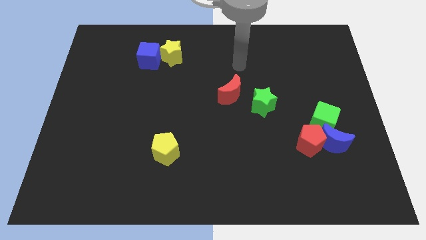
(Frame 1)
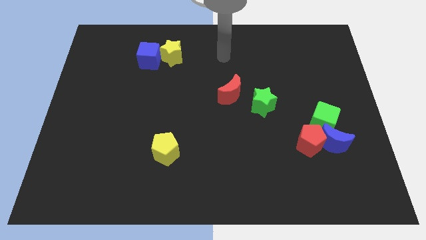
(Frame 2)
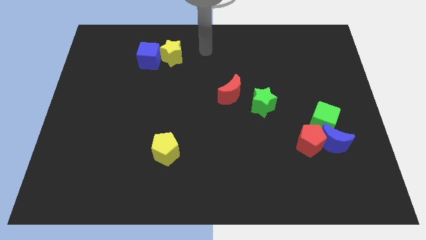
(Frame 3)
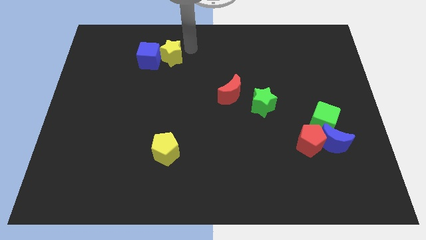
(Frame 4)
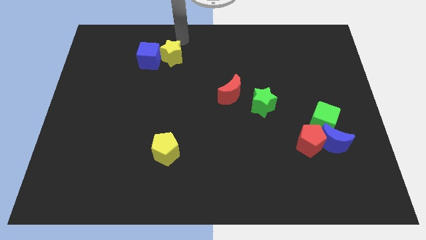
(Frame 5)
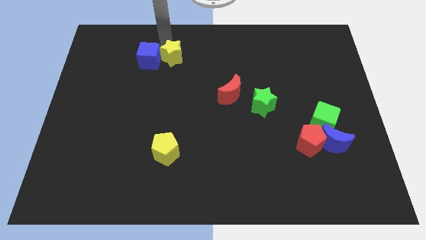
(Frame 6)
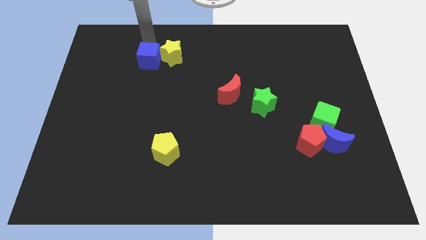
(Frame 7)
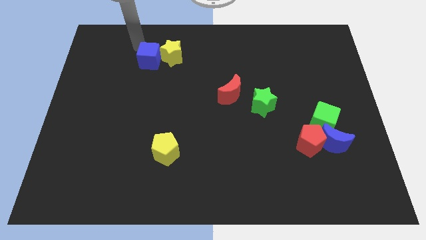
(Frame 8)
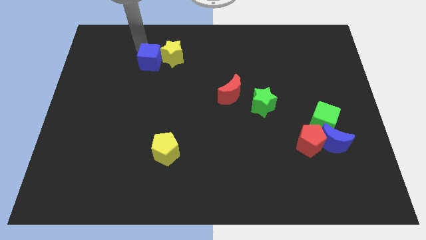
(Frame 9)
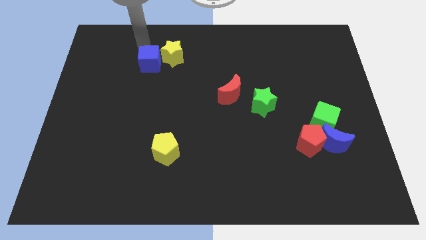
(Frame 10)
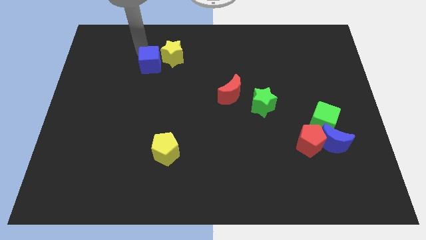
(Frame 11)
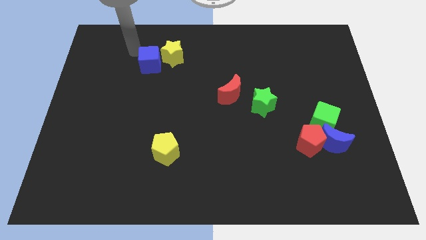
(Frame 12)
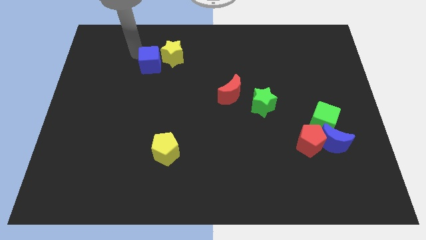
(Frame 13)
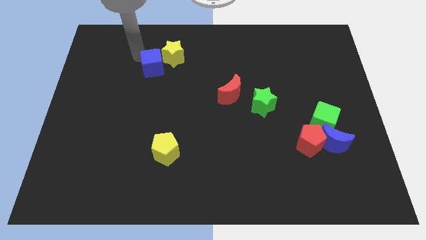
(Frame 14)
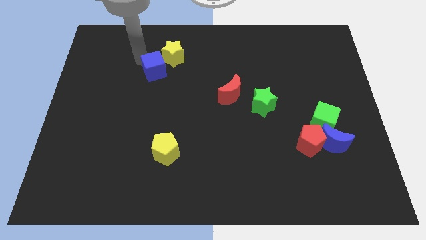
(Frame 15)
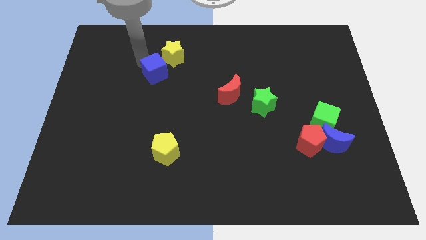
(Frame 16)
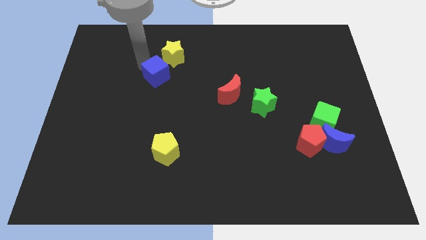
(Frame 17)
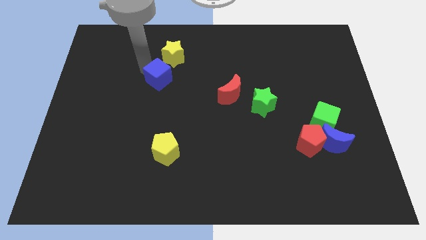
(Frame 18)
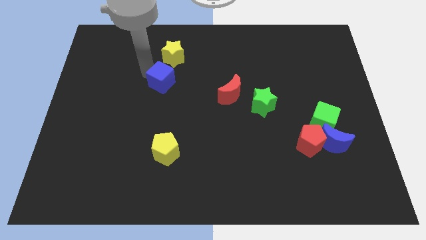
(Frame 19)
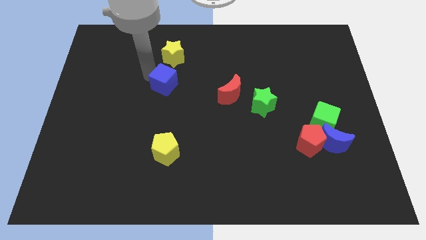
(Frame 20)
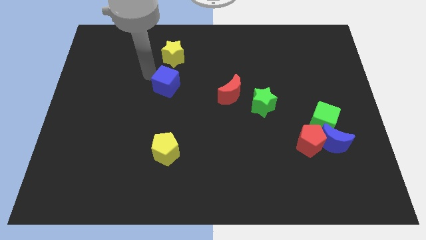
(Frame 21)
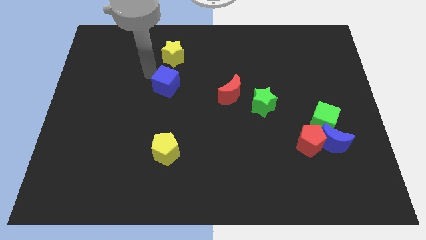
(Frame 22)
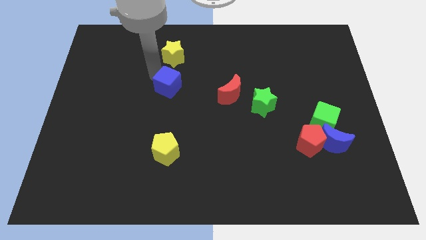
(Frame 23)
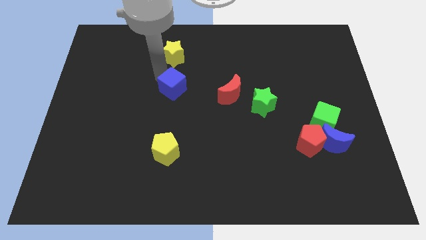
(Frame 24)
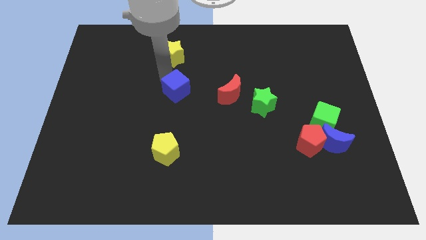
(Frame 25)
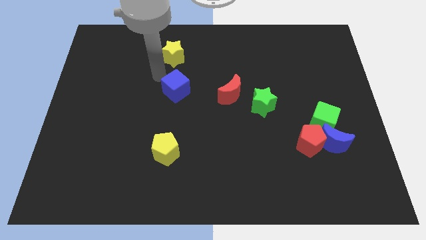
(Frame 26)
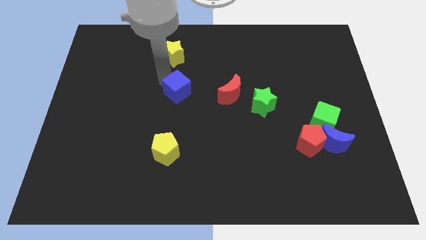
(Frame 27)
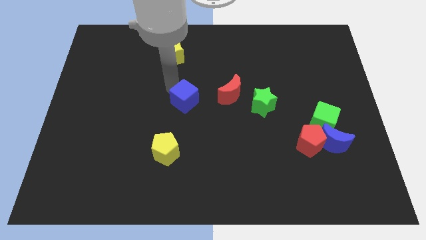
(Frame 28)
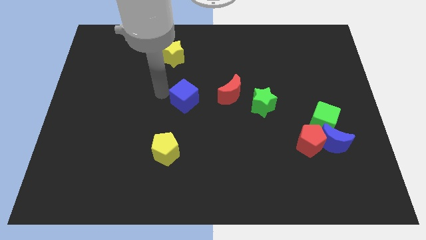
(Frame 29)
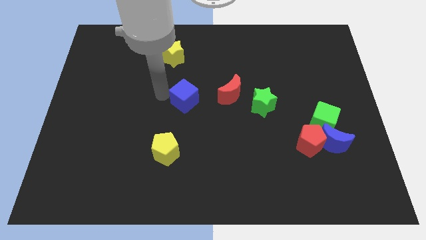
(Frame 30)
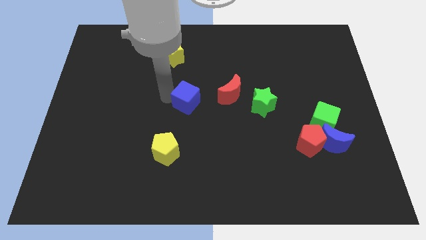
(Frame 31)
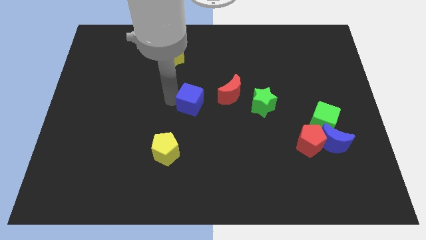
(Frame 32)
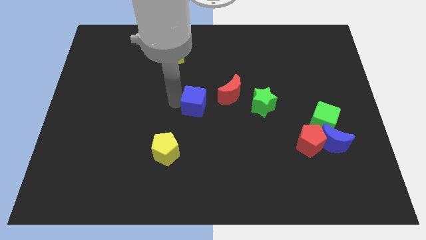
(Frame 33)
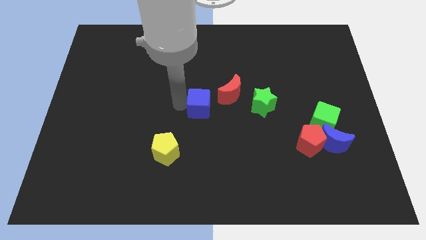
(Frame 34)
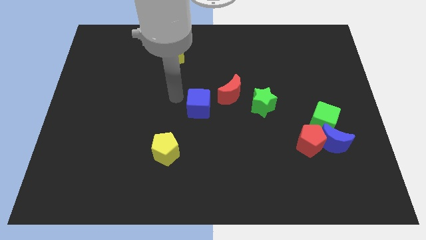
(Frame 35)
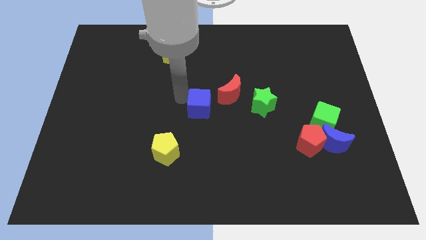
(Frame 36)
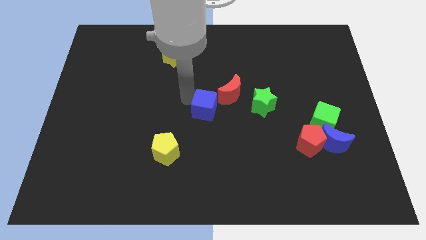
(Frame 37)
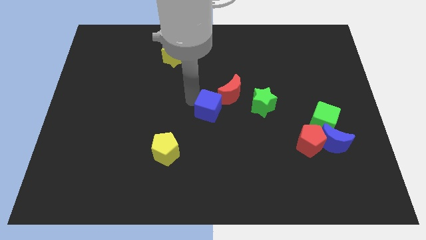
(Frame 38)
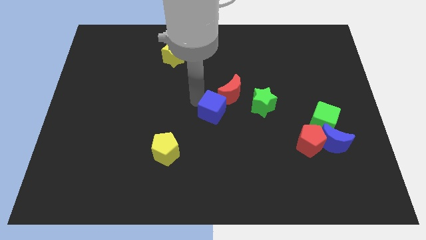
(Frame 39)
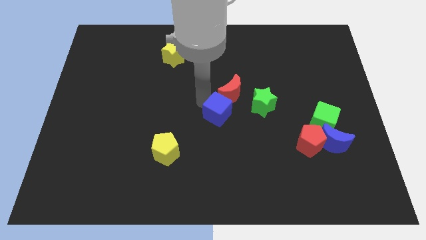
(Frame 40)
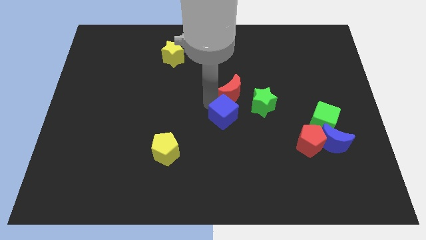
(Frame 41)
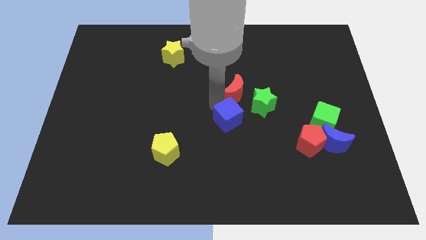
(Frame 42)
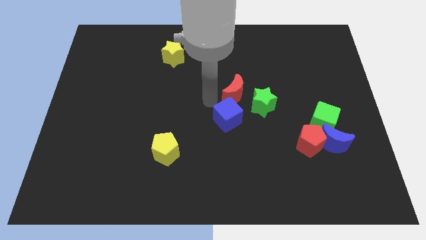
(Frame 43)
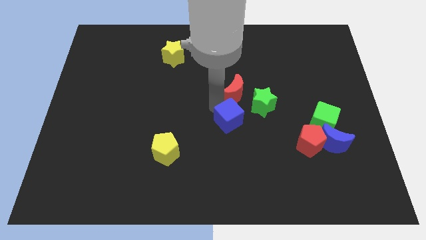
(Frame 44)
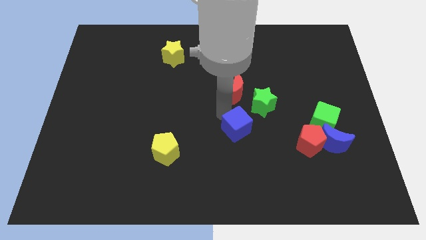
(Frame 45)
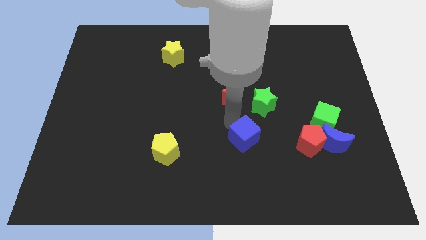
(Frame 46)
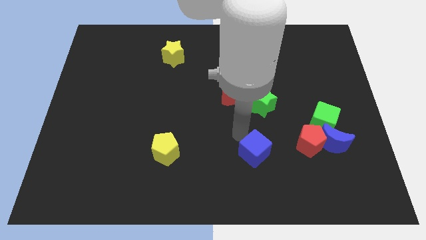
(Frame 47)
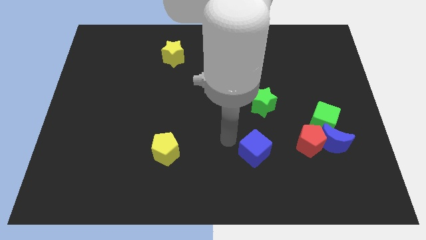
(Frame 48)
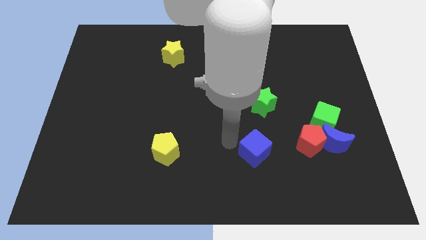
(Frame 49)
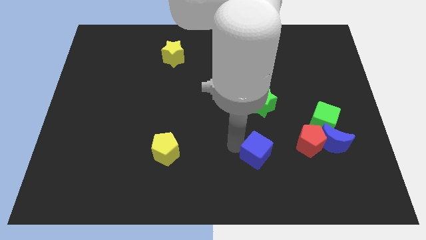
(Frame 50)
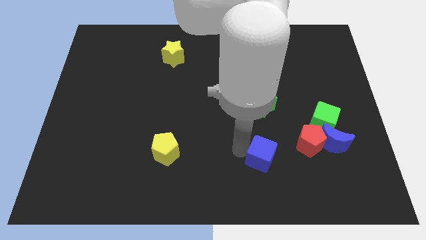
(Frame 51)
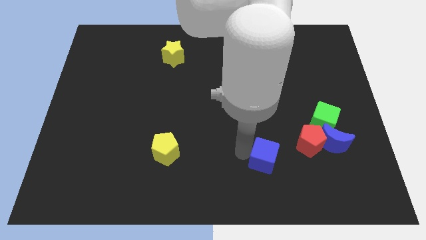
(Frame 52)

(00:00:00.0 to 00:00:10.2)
put the blue cube to the bottom left of the red pentagon

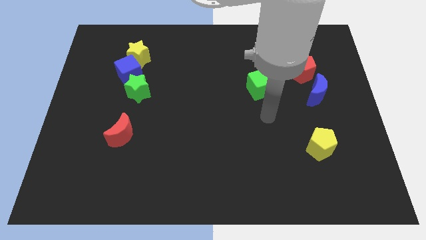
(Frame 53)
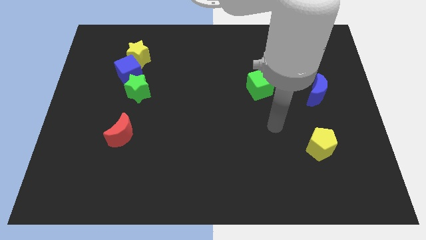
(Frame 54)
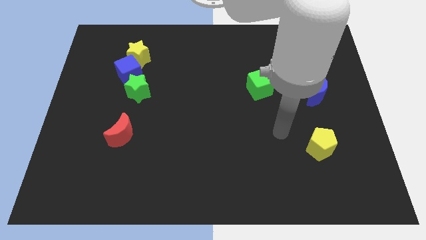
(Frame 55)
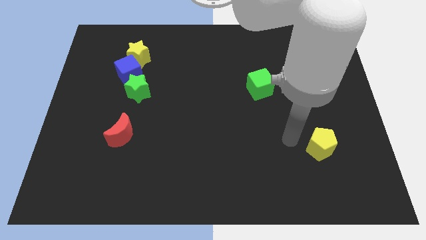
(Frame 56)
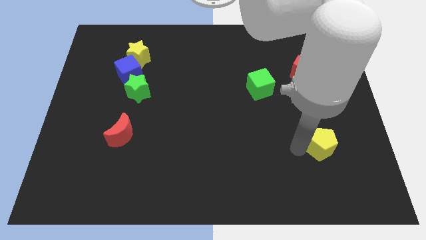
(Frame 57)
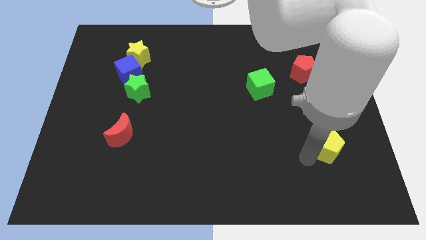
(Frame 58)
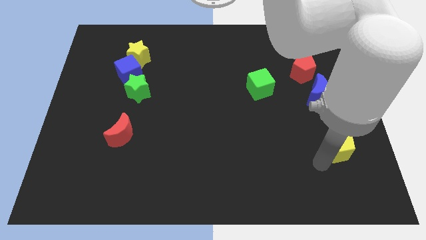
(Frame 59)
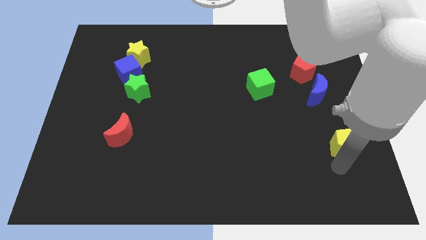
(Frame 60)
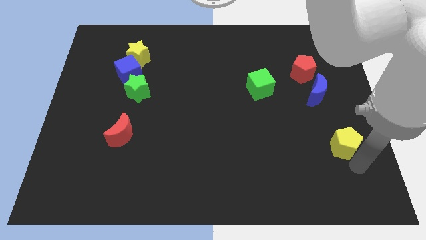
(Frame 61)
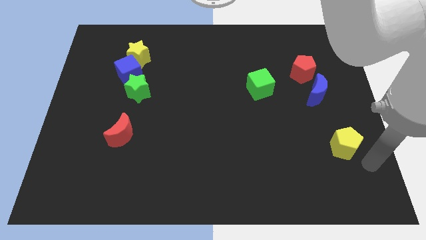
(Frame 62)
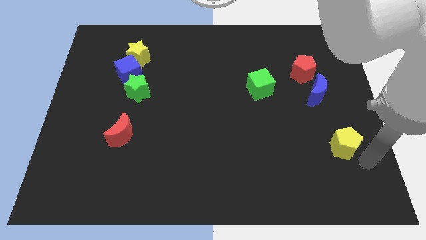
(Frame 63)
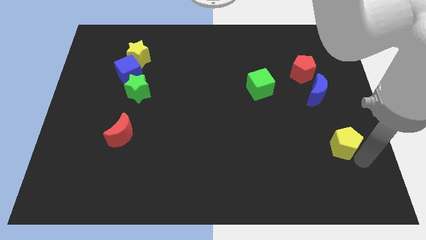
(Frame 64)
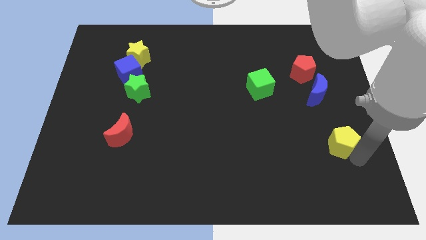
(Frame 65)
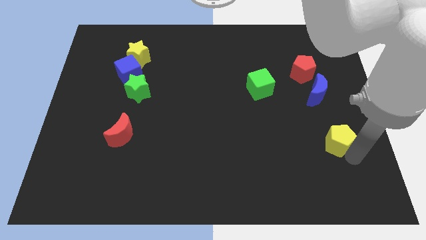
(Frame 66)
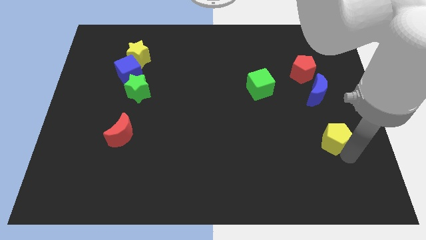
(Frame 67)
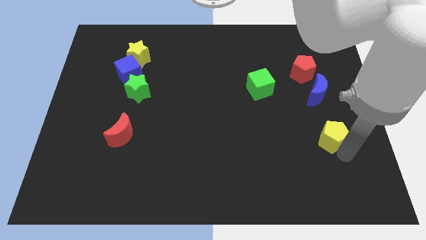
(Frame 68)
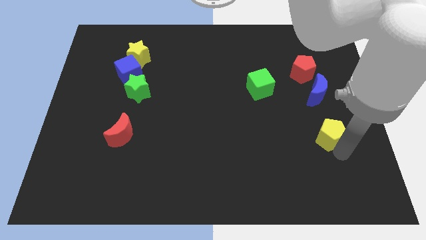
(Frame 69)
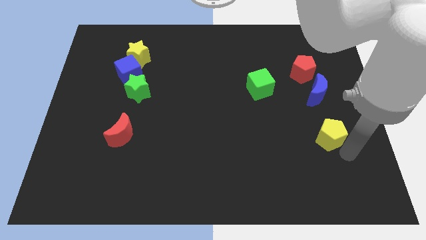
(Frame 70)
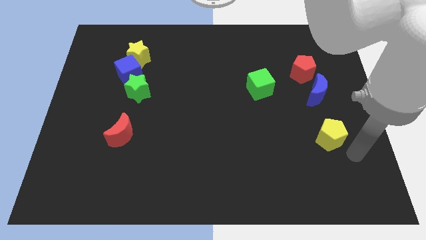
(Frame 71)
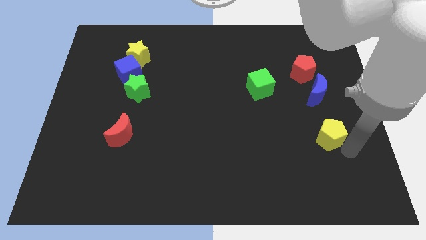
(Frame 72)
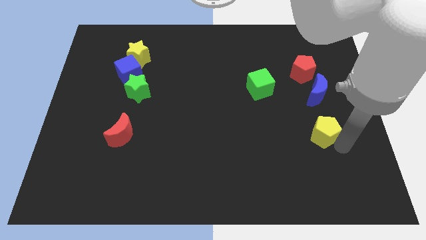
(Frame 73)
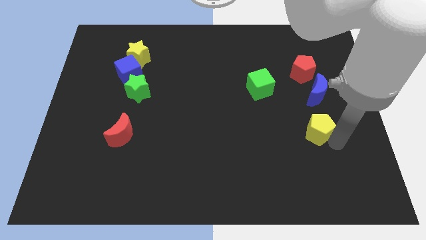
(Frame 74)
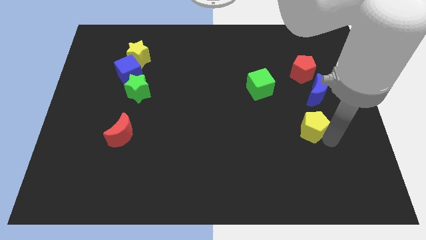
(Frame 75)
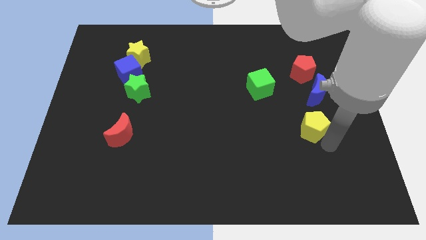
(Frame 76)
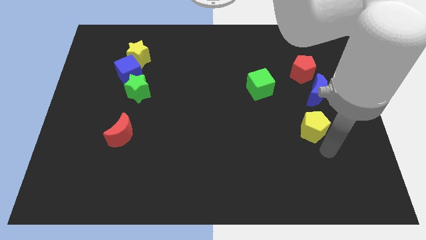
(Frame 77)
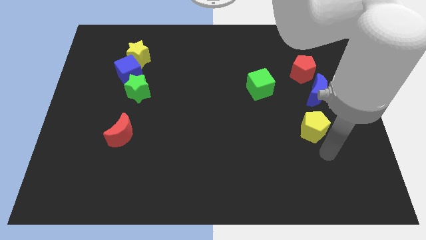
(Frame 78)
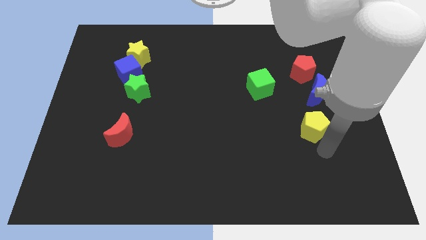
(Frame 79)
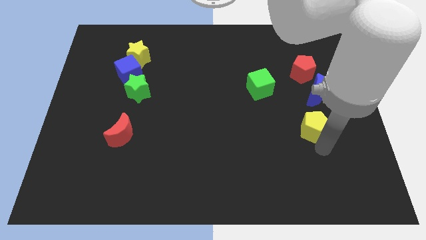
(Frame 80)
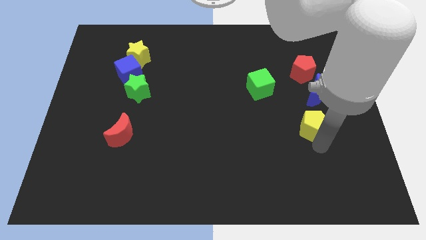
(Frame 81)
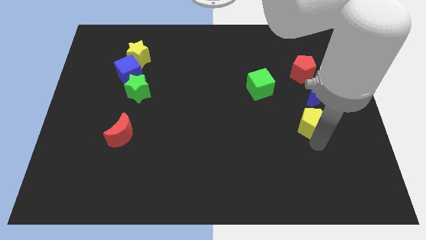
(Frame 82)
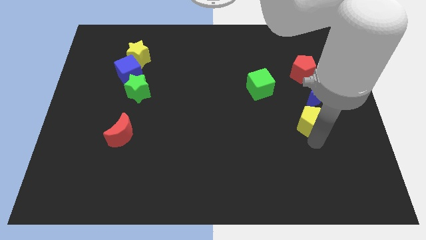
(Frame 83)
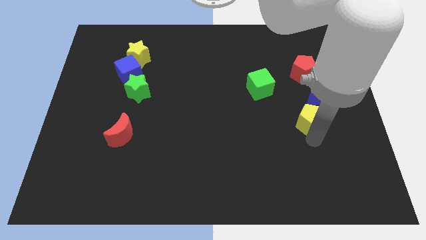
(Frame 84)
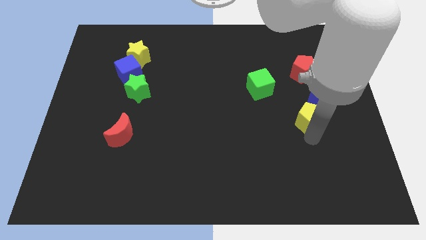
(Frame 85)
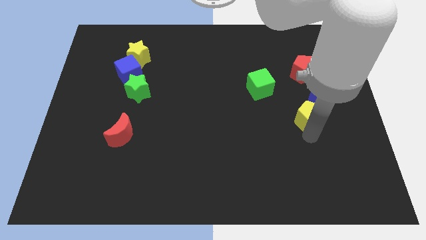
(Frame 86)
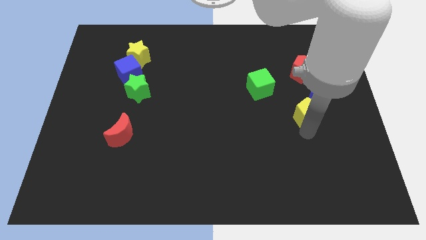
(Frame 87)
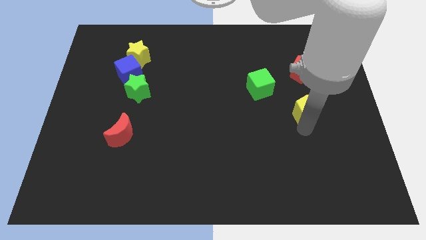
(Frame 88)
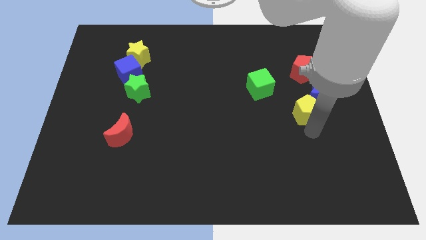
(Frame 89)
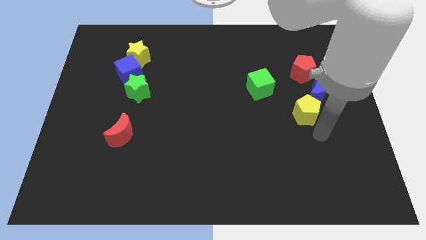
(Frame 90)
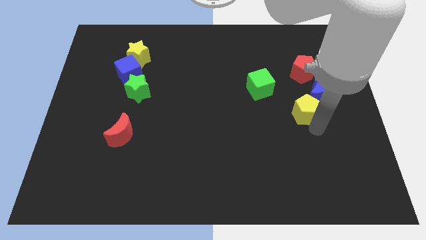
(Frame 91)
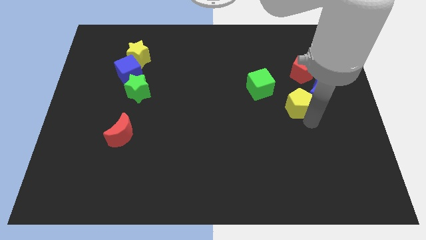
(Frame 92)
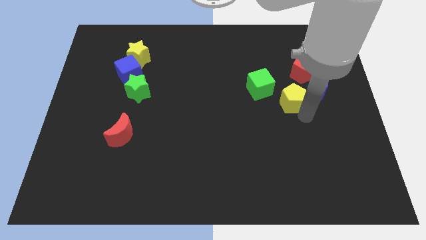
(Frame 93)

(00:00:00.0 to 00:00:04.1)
slide the yellow pentagon to the bottom left of the red pentagon
